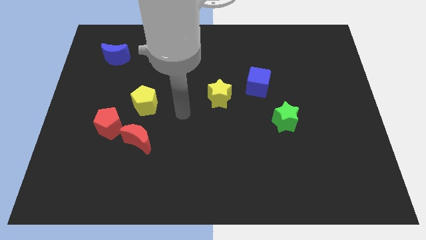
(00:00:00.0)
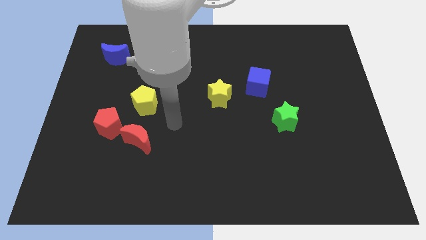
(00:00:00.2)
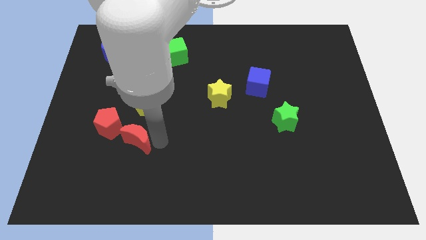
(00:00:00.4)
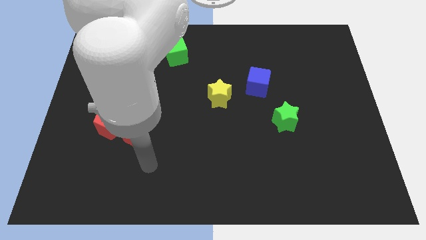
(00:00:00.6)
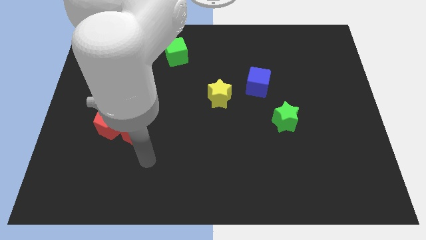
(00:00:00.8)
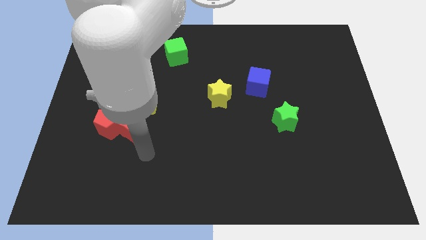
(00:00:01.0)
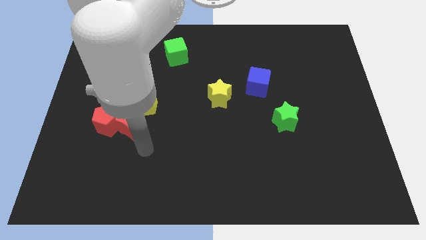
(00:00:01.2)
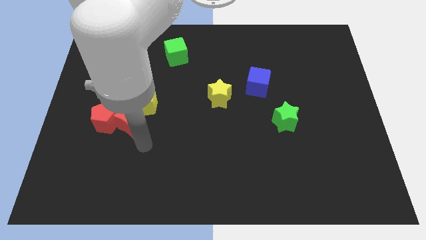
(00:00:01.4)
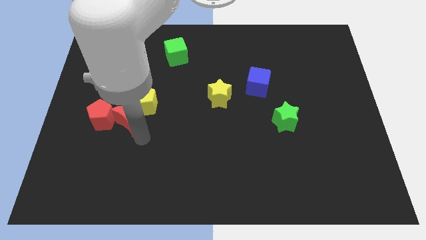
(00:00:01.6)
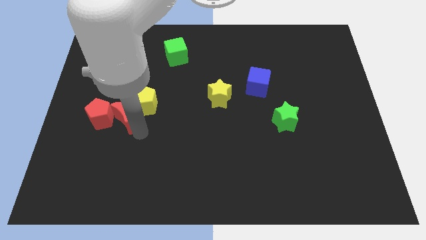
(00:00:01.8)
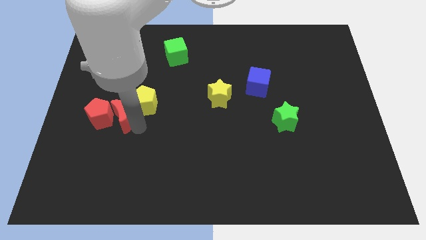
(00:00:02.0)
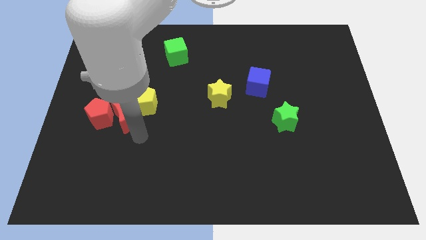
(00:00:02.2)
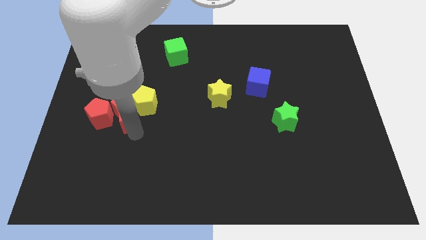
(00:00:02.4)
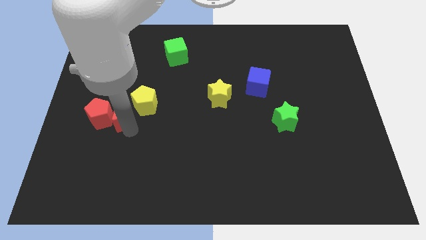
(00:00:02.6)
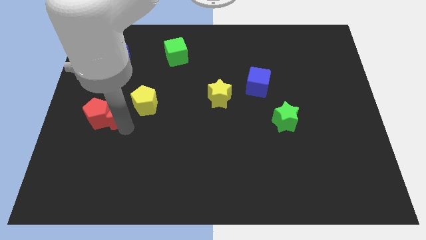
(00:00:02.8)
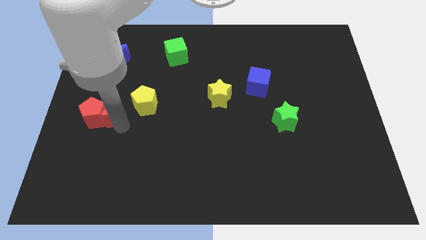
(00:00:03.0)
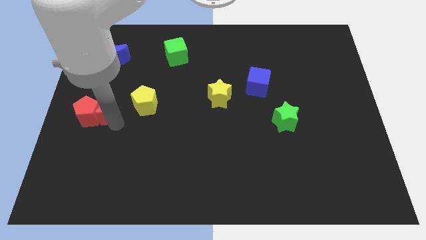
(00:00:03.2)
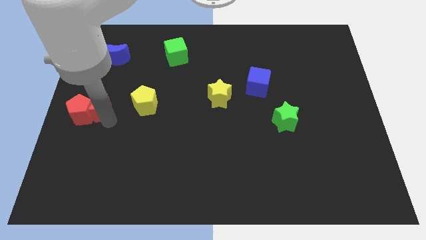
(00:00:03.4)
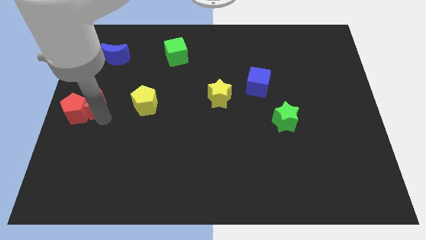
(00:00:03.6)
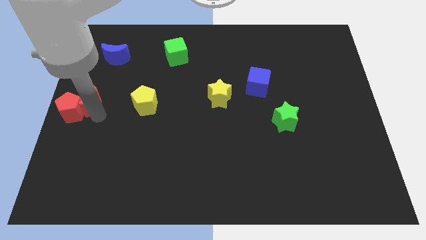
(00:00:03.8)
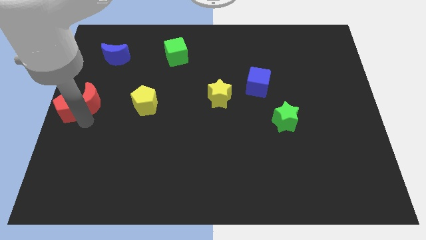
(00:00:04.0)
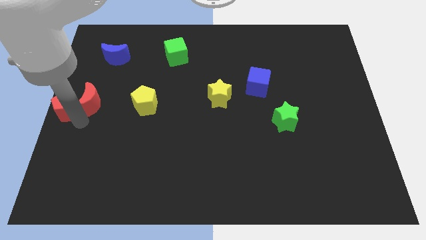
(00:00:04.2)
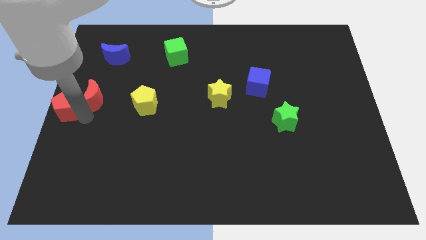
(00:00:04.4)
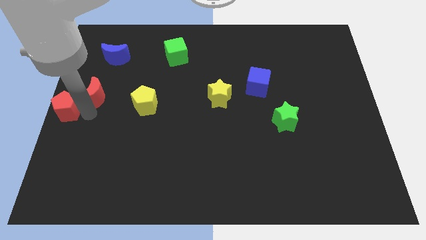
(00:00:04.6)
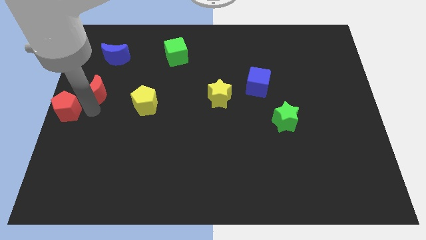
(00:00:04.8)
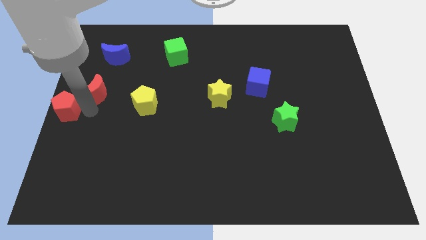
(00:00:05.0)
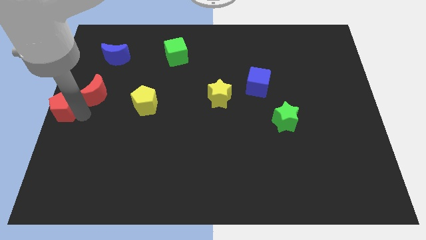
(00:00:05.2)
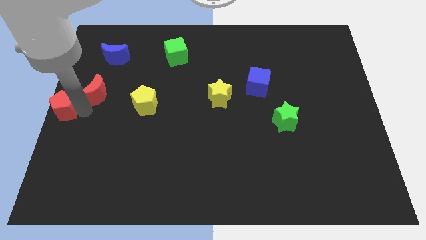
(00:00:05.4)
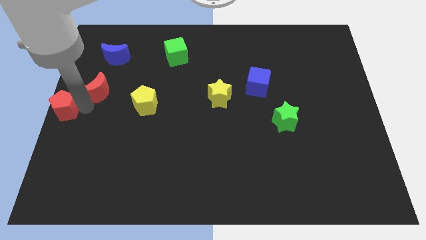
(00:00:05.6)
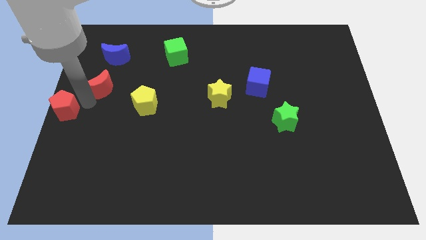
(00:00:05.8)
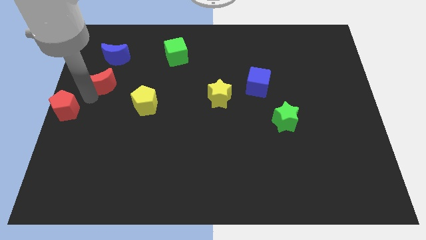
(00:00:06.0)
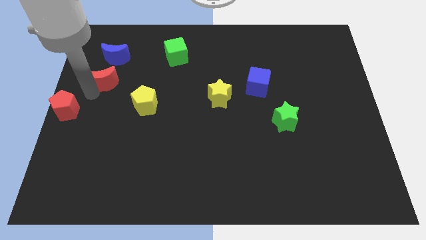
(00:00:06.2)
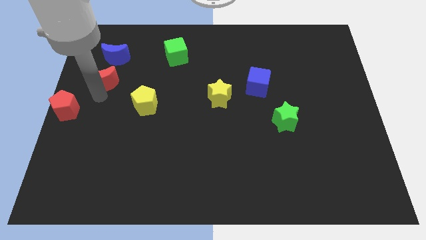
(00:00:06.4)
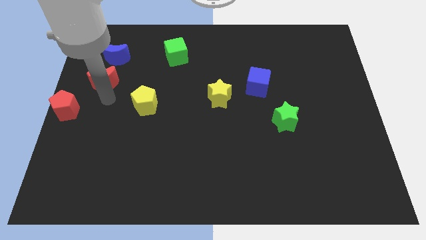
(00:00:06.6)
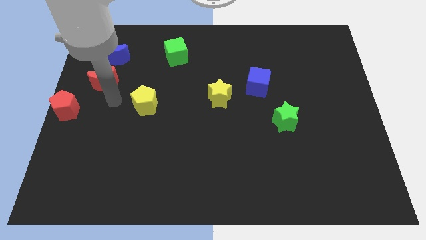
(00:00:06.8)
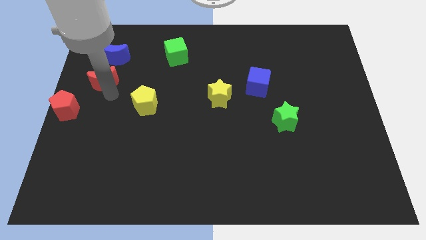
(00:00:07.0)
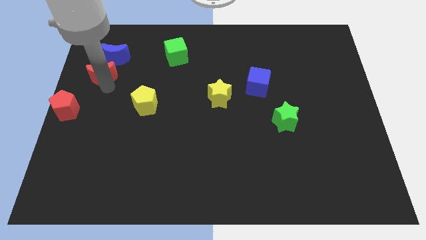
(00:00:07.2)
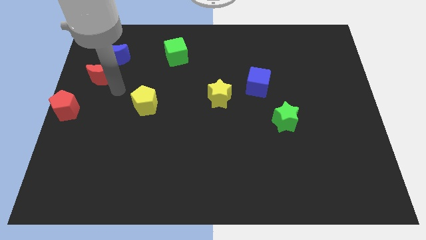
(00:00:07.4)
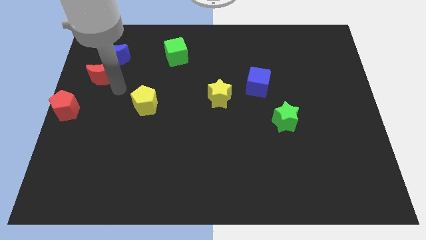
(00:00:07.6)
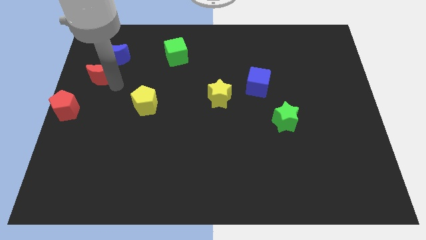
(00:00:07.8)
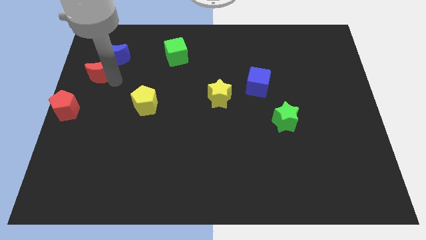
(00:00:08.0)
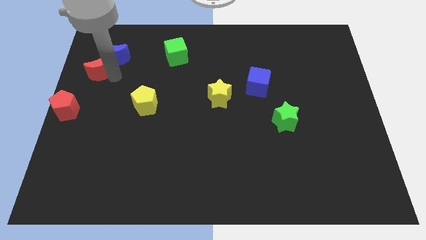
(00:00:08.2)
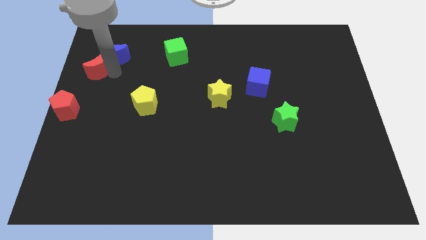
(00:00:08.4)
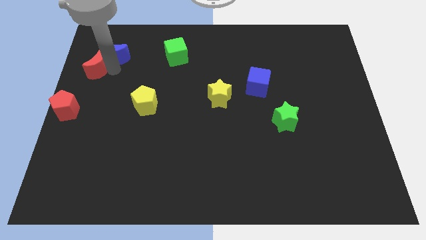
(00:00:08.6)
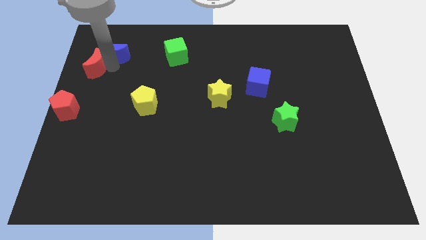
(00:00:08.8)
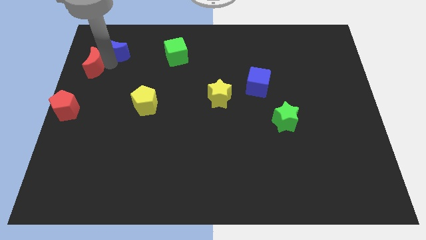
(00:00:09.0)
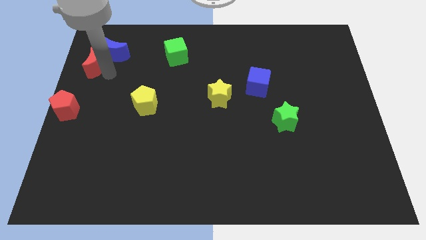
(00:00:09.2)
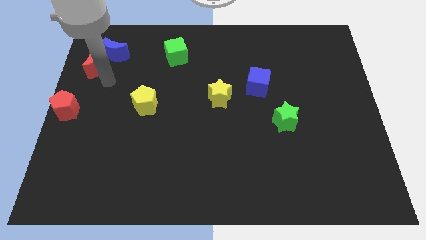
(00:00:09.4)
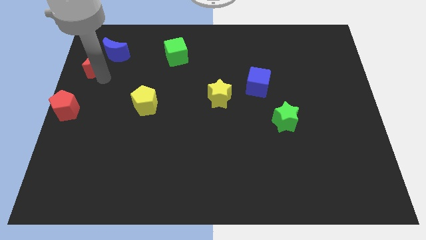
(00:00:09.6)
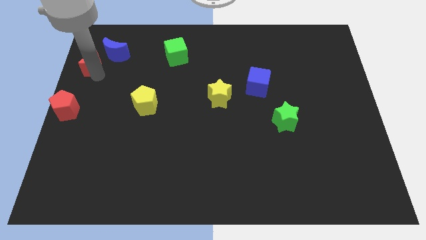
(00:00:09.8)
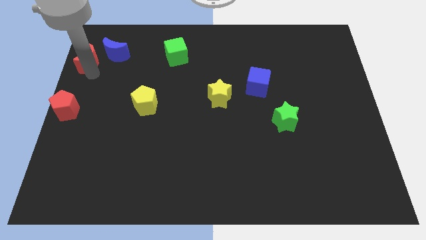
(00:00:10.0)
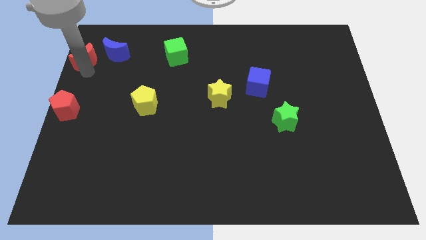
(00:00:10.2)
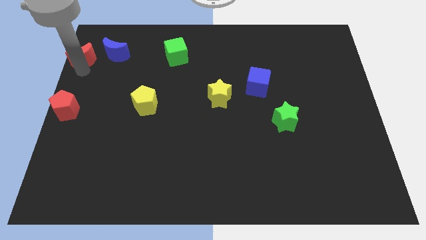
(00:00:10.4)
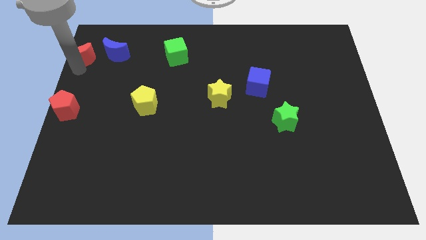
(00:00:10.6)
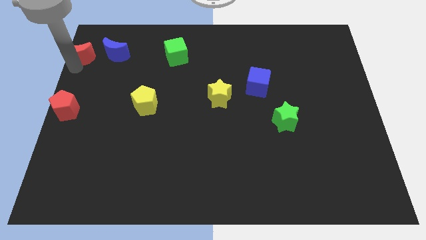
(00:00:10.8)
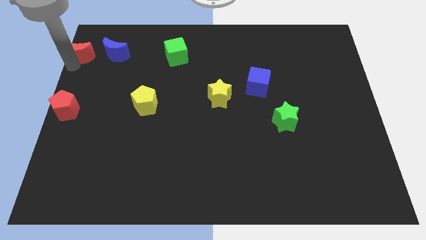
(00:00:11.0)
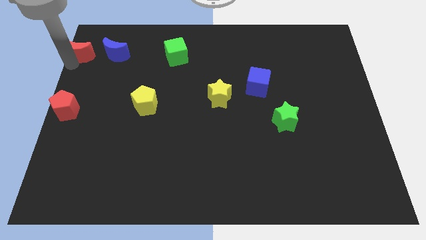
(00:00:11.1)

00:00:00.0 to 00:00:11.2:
put the red moon to the upper left corner

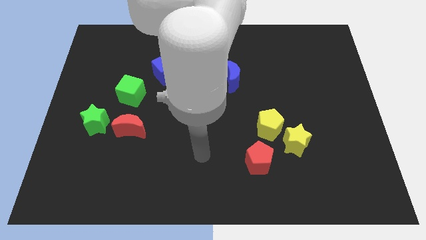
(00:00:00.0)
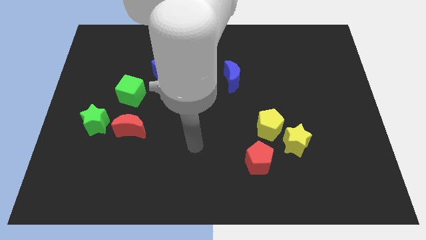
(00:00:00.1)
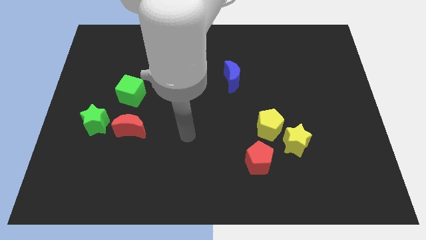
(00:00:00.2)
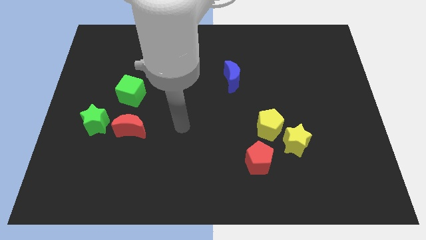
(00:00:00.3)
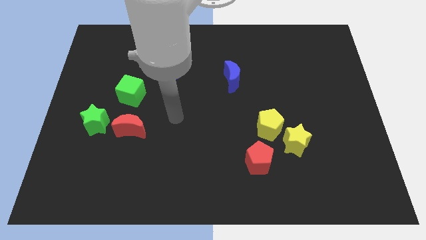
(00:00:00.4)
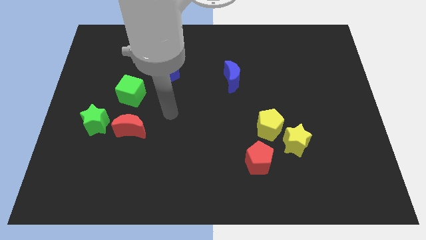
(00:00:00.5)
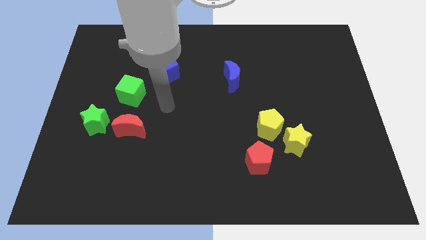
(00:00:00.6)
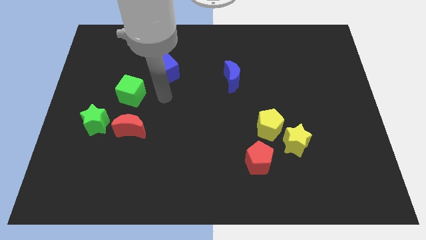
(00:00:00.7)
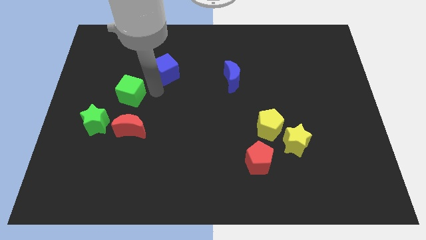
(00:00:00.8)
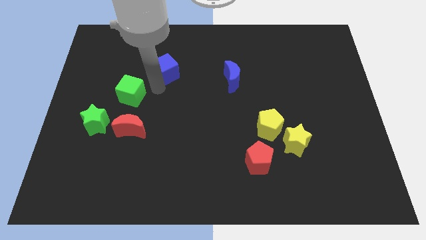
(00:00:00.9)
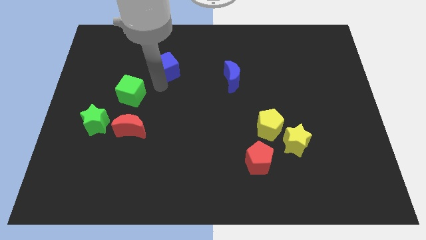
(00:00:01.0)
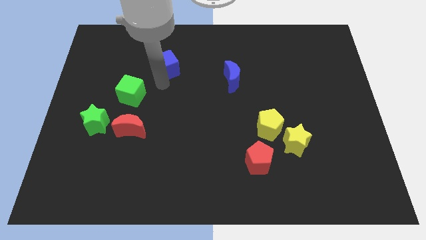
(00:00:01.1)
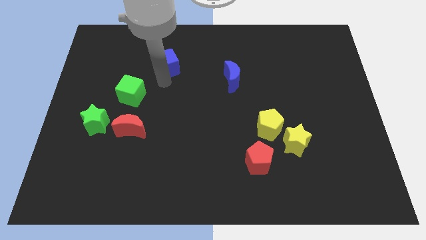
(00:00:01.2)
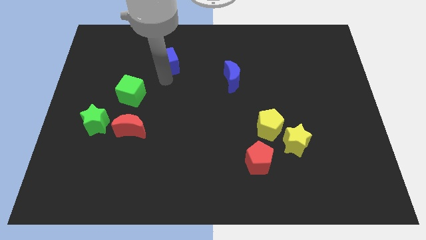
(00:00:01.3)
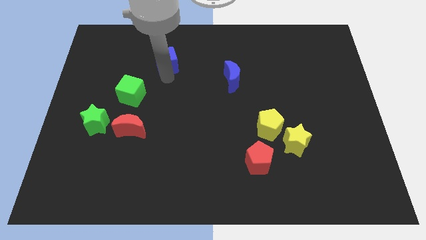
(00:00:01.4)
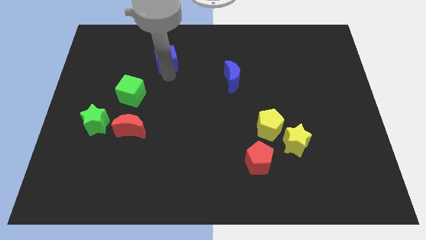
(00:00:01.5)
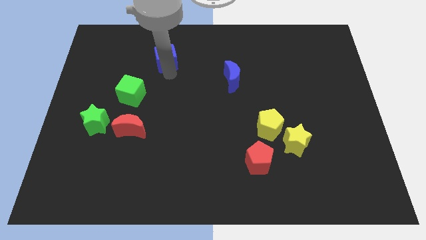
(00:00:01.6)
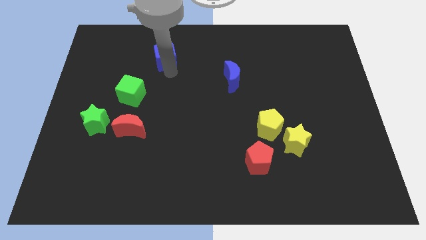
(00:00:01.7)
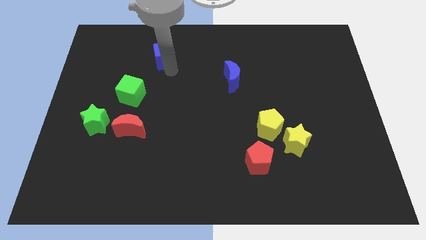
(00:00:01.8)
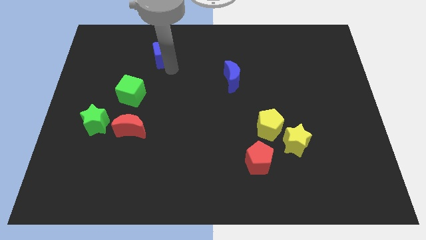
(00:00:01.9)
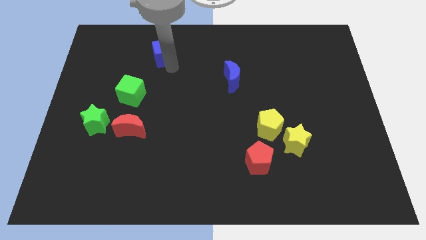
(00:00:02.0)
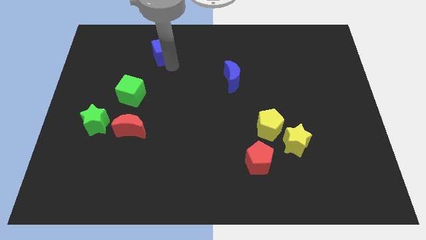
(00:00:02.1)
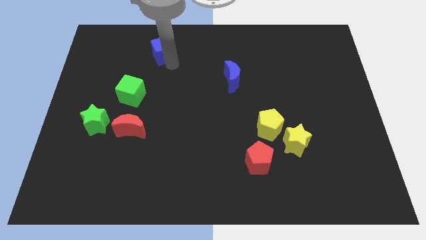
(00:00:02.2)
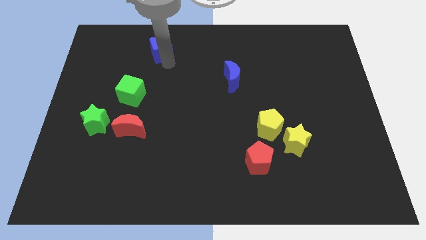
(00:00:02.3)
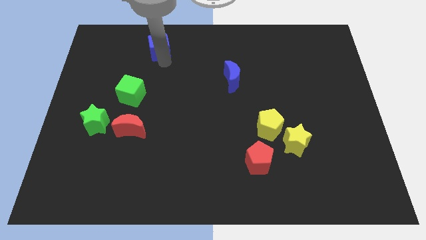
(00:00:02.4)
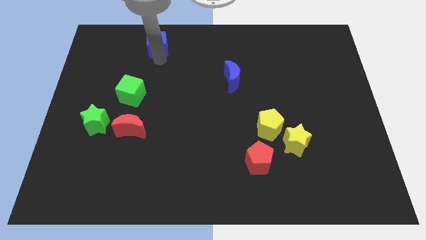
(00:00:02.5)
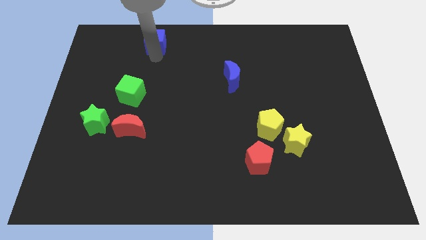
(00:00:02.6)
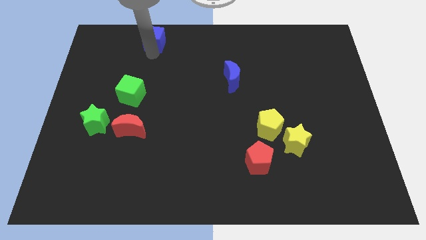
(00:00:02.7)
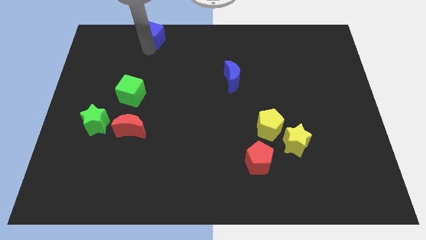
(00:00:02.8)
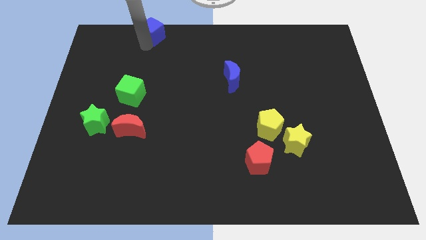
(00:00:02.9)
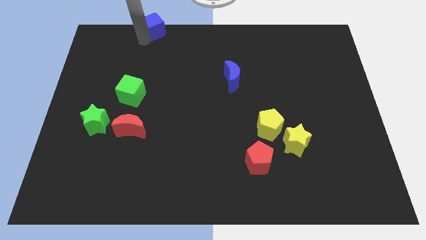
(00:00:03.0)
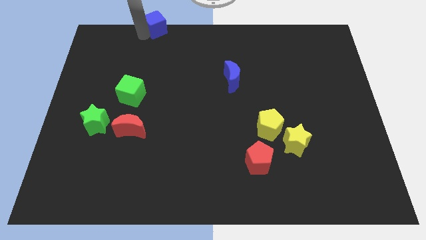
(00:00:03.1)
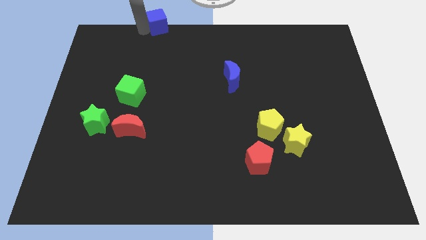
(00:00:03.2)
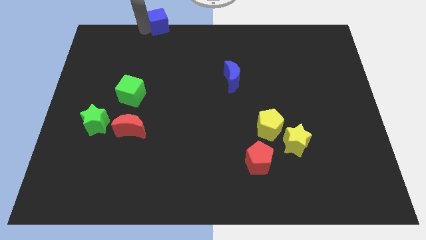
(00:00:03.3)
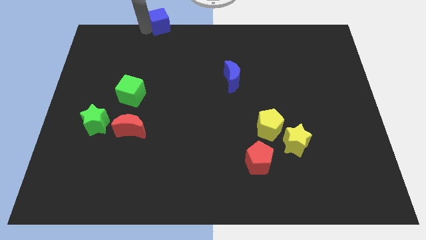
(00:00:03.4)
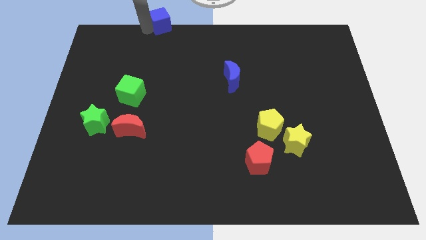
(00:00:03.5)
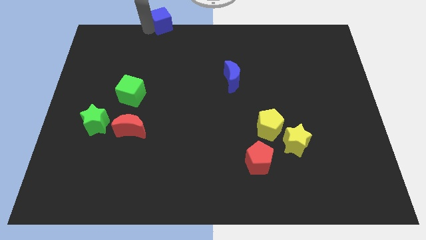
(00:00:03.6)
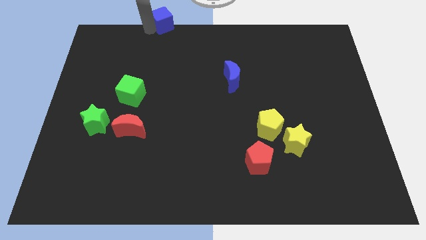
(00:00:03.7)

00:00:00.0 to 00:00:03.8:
put the blue cube to the top side
